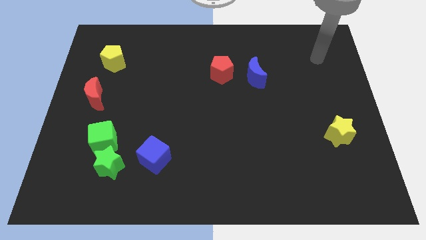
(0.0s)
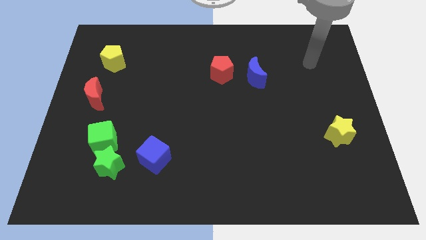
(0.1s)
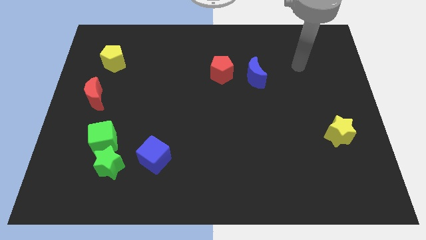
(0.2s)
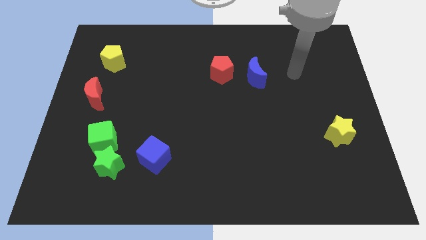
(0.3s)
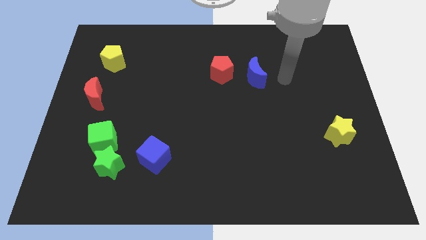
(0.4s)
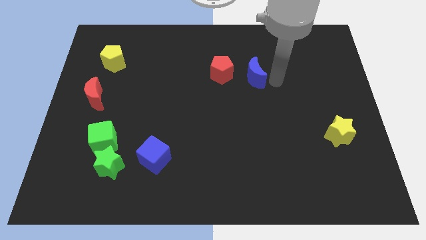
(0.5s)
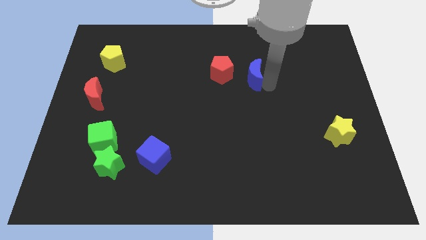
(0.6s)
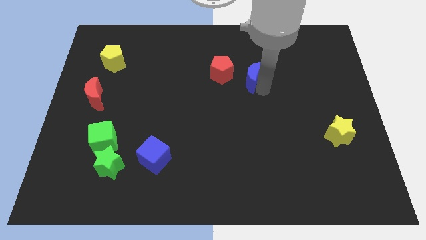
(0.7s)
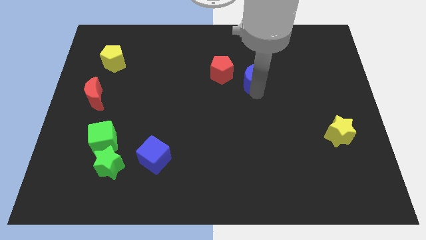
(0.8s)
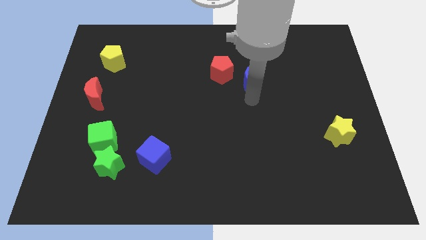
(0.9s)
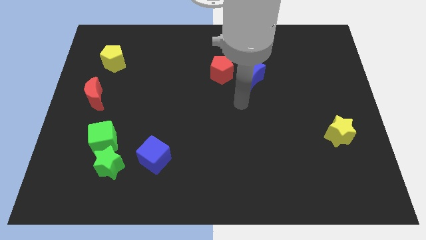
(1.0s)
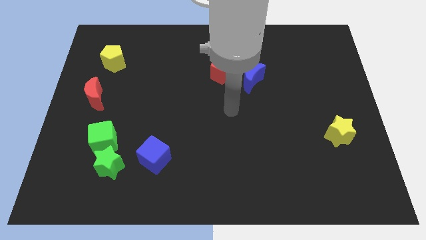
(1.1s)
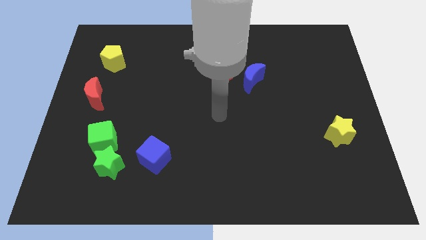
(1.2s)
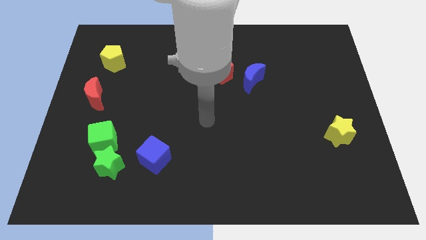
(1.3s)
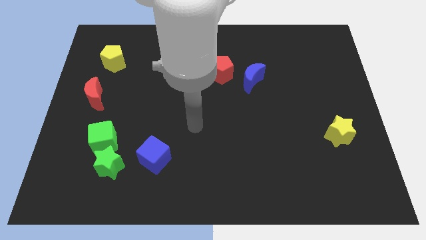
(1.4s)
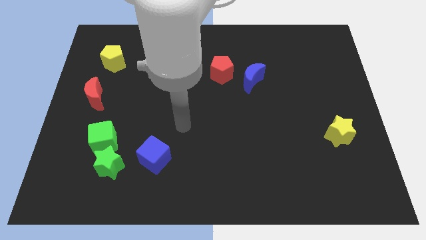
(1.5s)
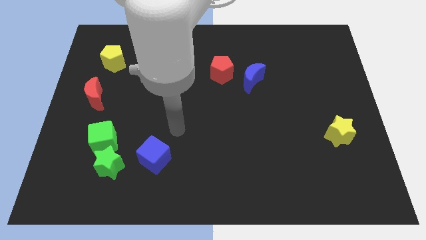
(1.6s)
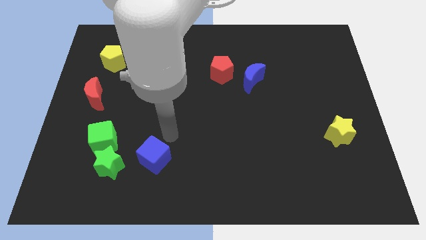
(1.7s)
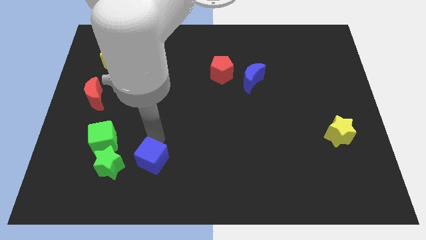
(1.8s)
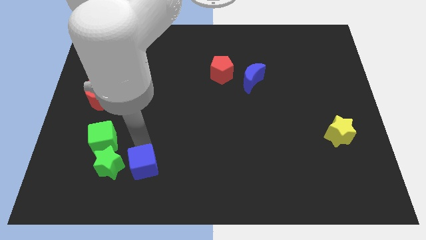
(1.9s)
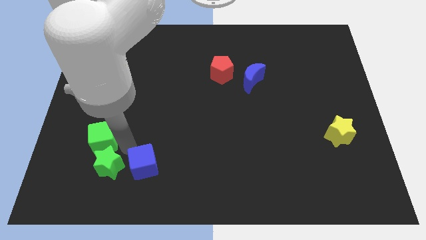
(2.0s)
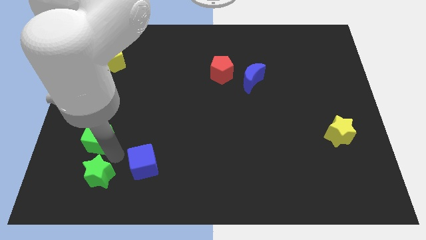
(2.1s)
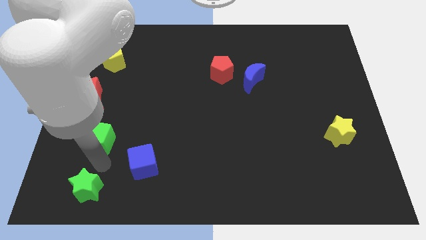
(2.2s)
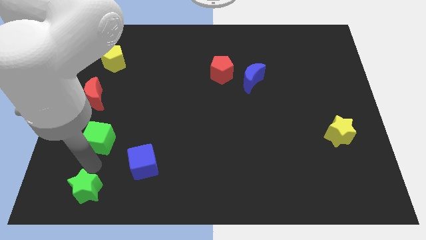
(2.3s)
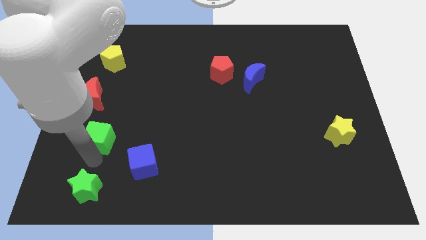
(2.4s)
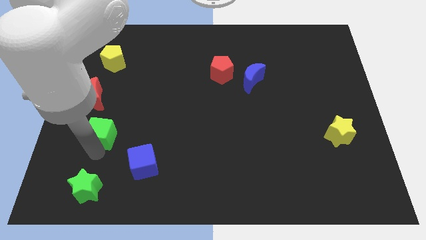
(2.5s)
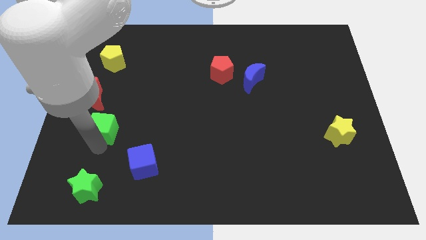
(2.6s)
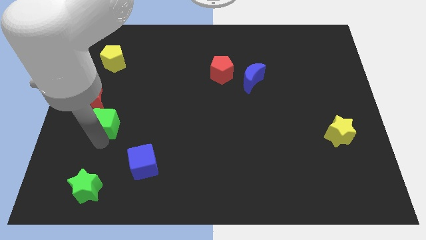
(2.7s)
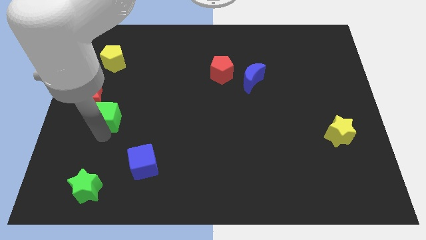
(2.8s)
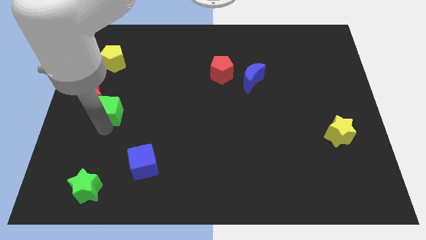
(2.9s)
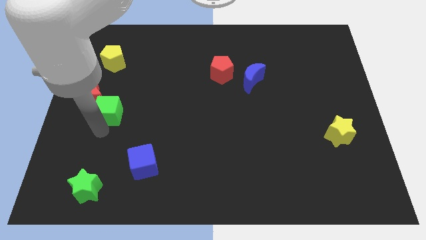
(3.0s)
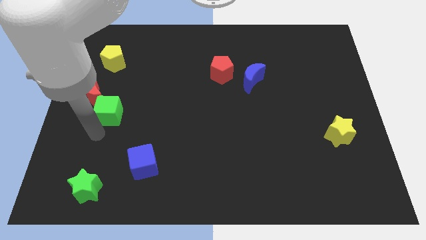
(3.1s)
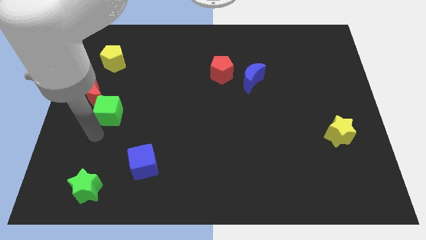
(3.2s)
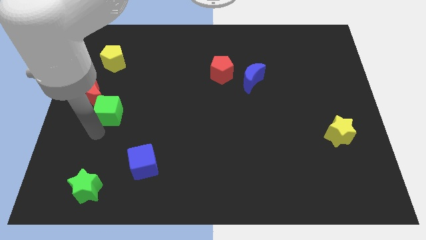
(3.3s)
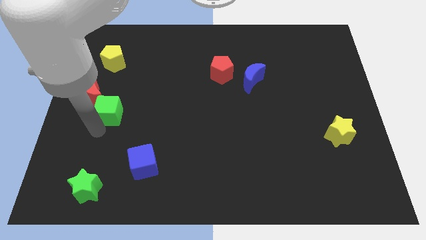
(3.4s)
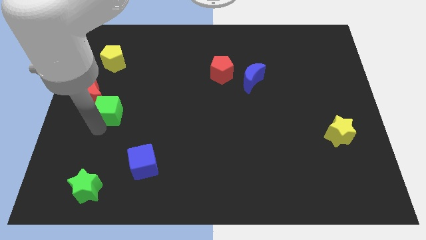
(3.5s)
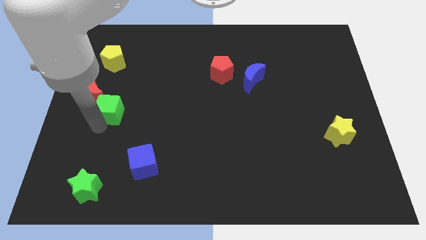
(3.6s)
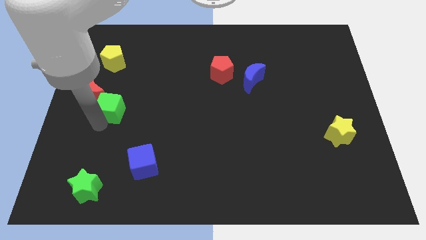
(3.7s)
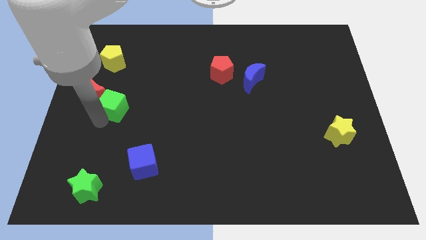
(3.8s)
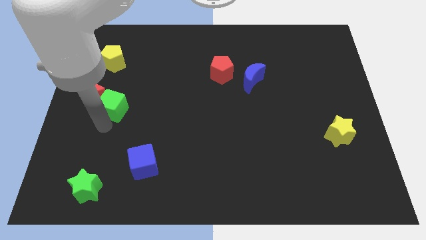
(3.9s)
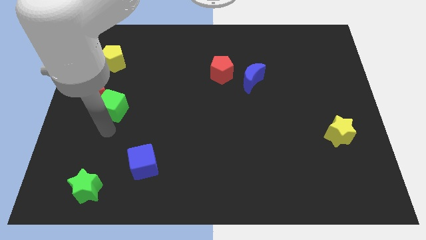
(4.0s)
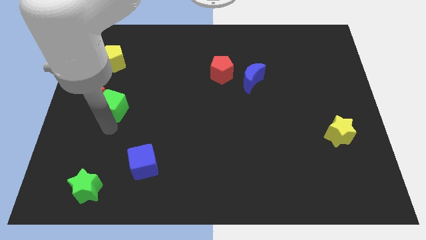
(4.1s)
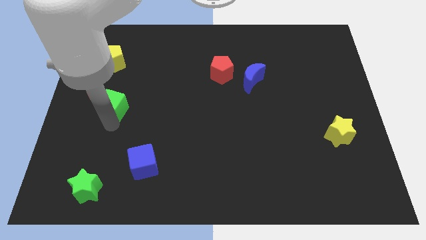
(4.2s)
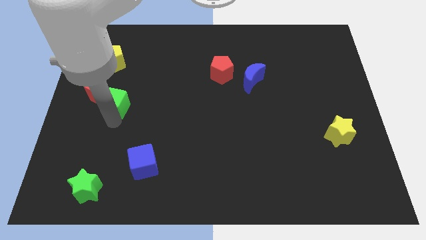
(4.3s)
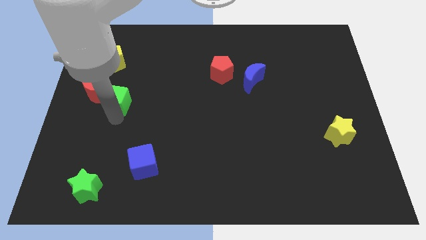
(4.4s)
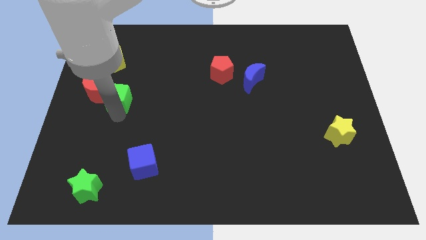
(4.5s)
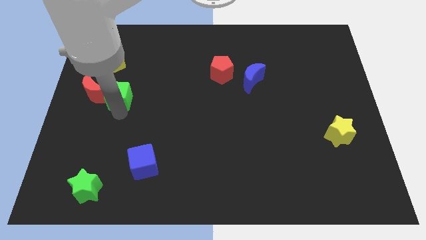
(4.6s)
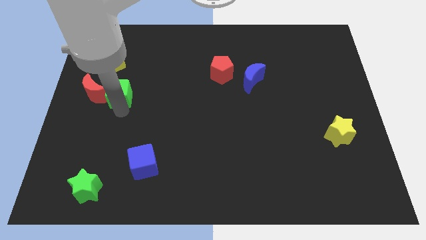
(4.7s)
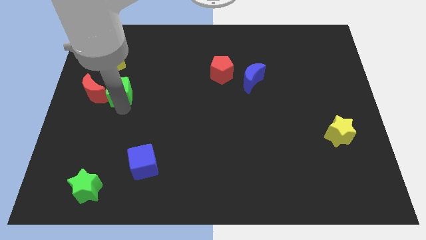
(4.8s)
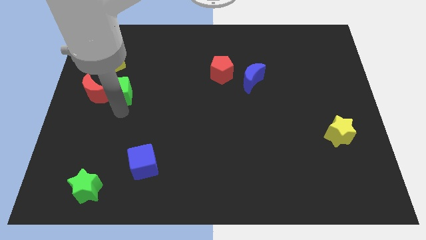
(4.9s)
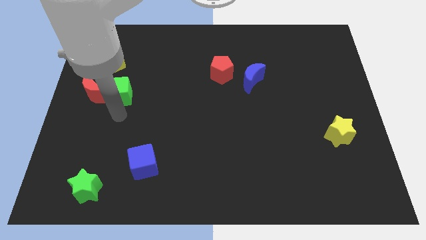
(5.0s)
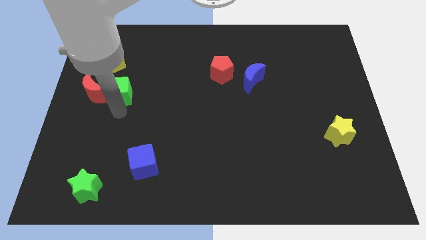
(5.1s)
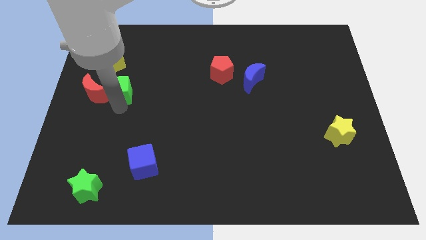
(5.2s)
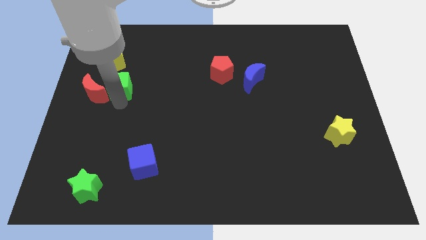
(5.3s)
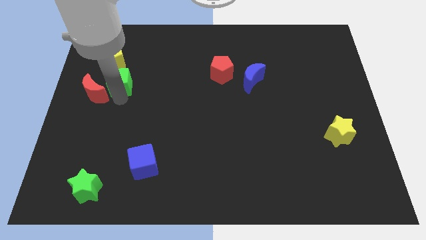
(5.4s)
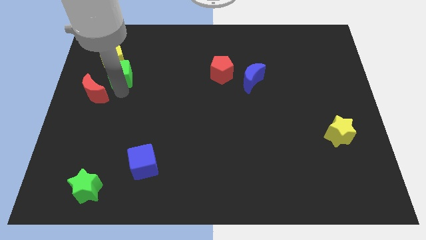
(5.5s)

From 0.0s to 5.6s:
put the green cube close to the yellow pentagon

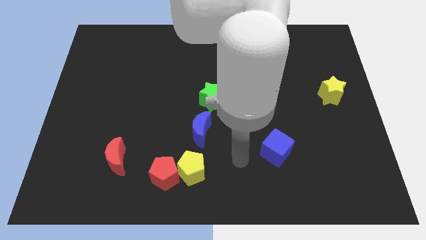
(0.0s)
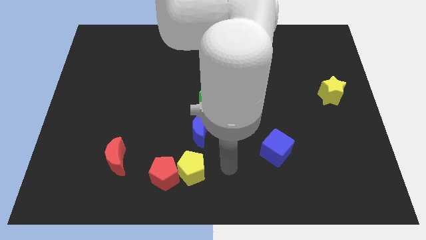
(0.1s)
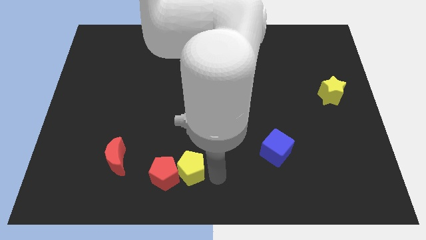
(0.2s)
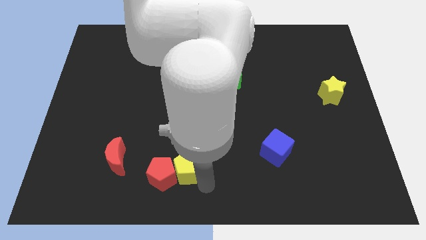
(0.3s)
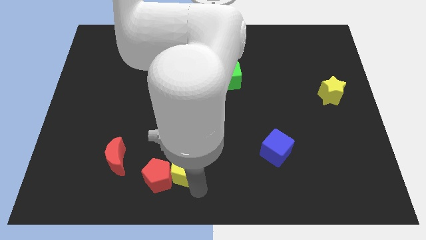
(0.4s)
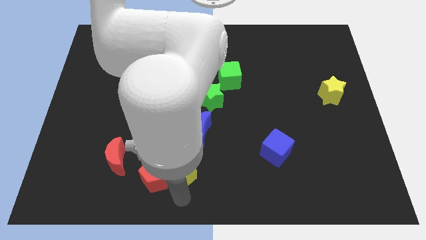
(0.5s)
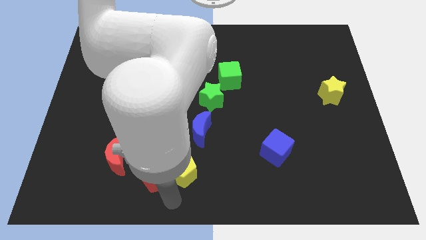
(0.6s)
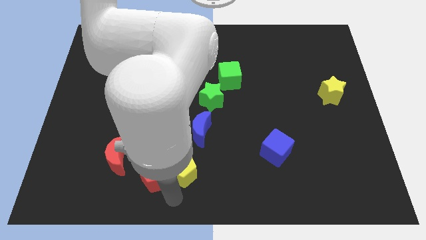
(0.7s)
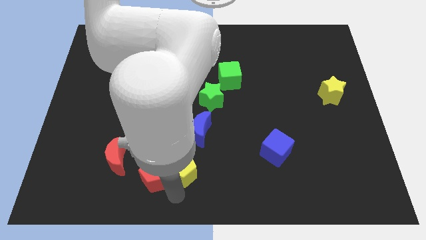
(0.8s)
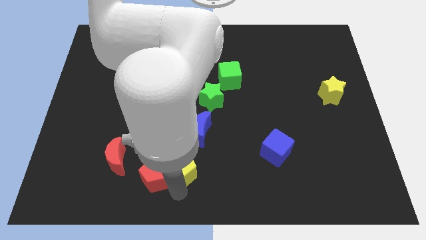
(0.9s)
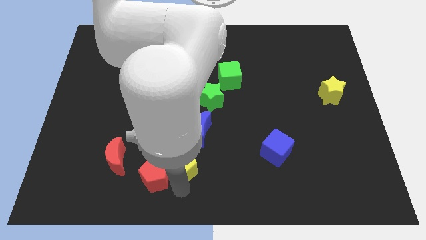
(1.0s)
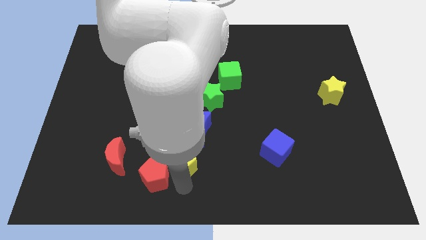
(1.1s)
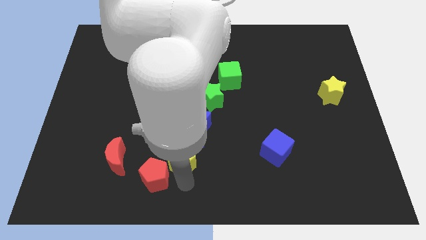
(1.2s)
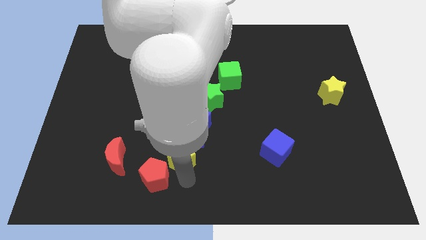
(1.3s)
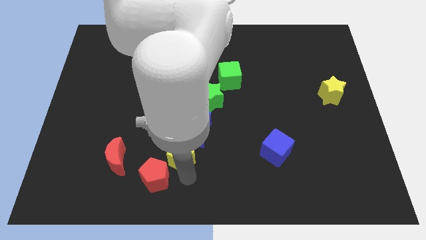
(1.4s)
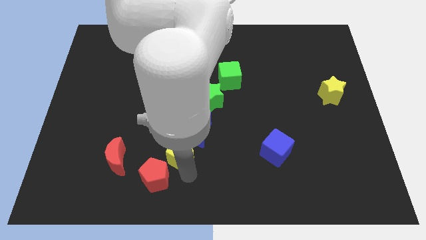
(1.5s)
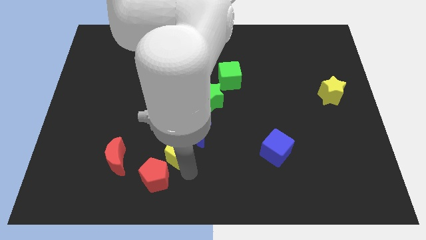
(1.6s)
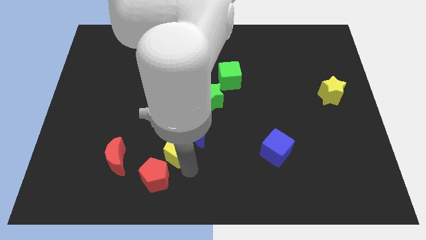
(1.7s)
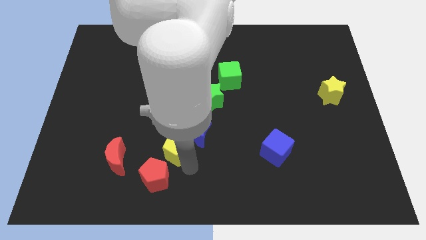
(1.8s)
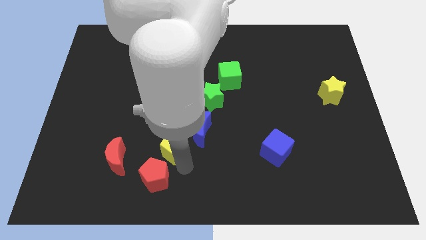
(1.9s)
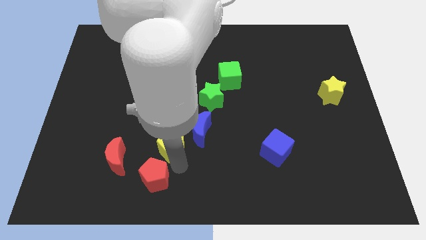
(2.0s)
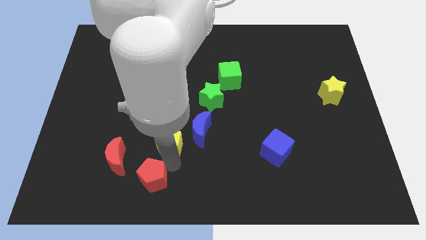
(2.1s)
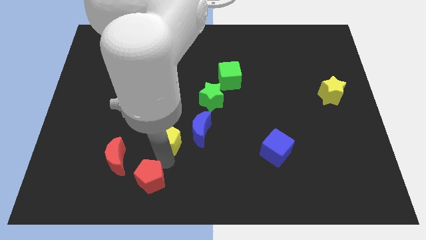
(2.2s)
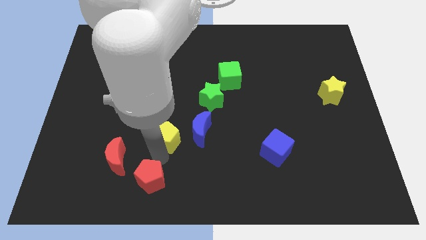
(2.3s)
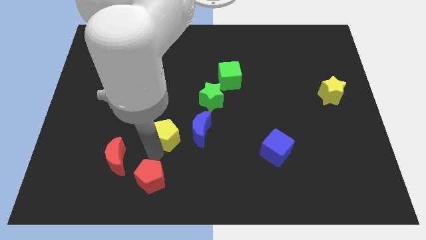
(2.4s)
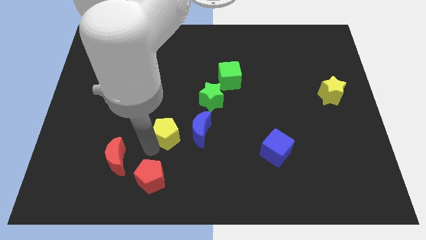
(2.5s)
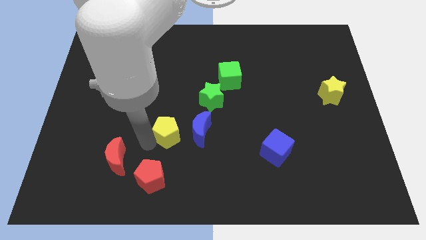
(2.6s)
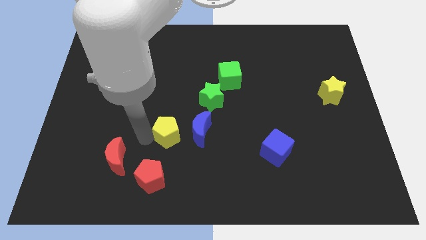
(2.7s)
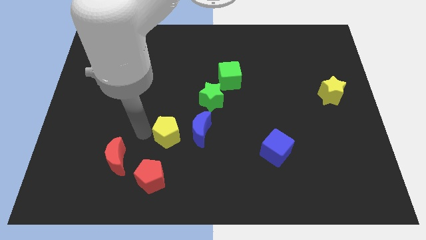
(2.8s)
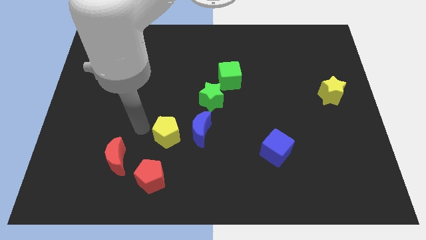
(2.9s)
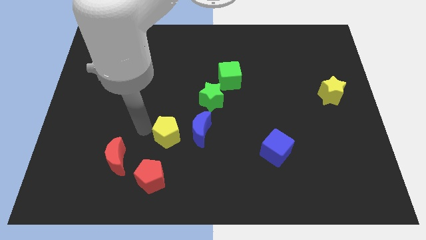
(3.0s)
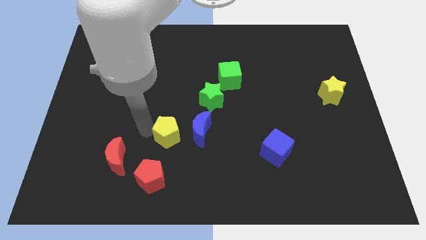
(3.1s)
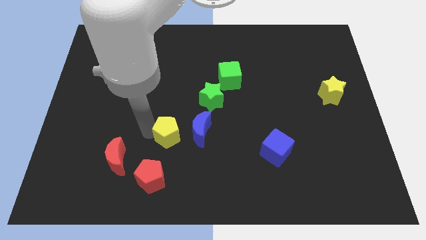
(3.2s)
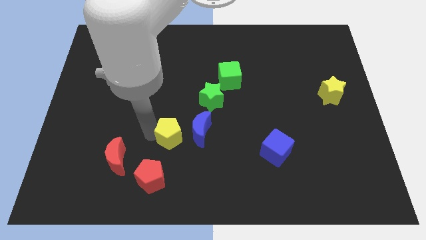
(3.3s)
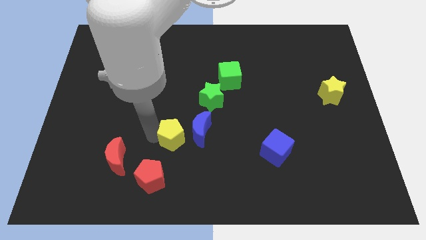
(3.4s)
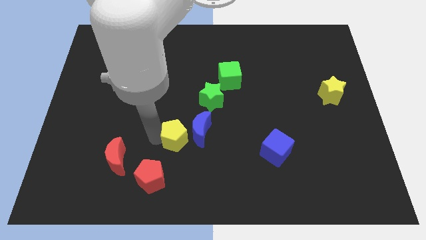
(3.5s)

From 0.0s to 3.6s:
put the yellow pentagon next to the blue moon
